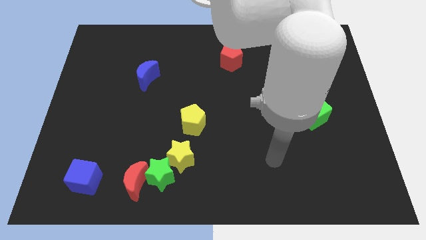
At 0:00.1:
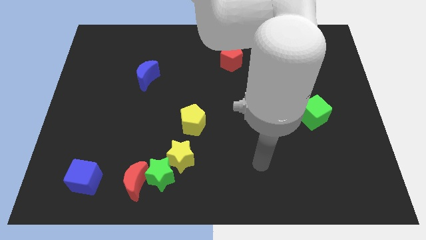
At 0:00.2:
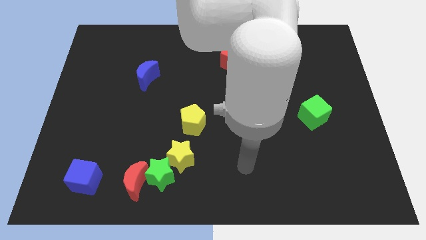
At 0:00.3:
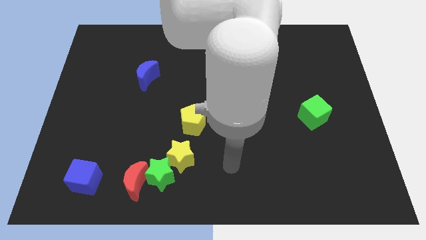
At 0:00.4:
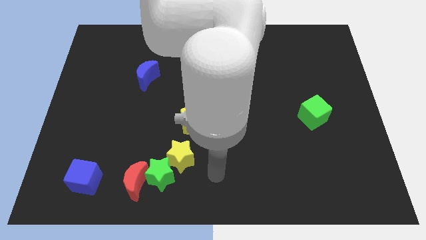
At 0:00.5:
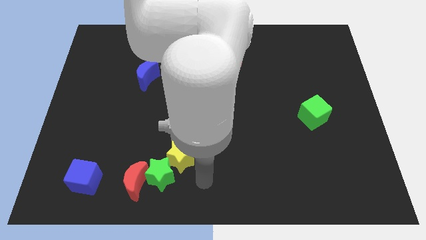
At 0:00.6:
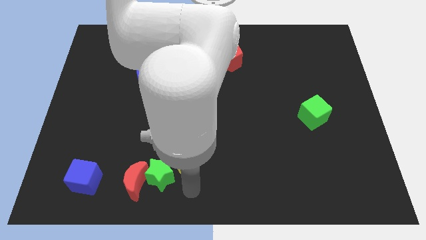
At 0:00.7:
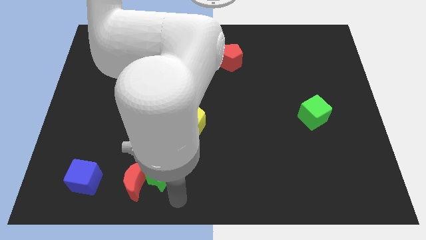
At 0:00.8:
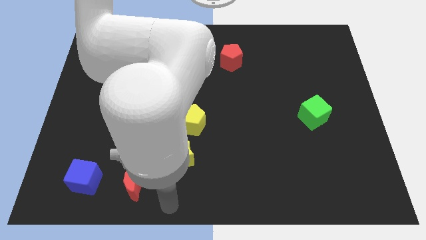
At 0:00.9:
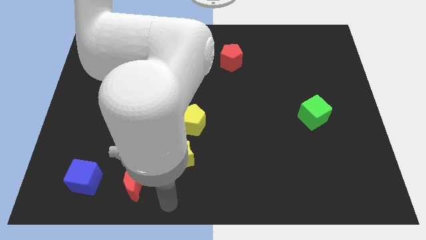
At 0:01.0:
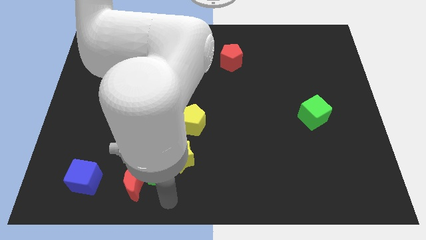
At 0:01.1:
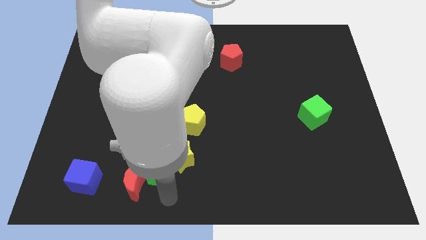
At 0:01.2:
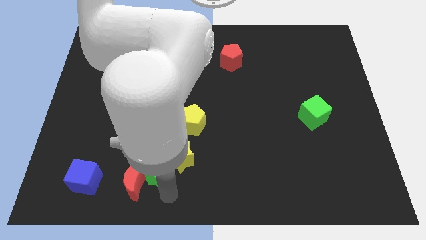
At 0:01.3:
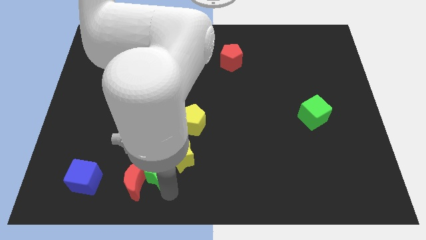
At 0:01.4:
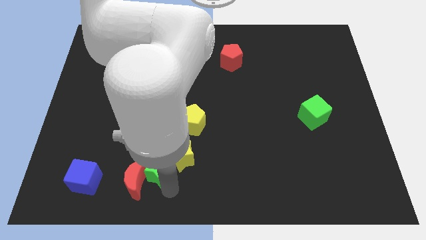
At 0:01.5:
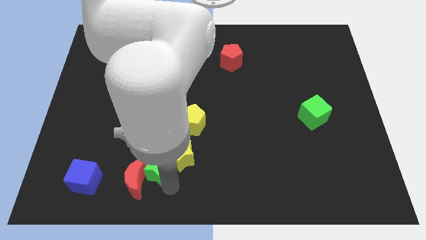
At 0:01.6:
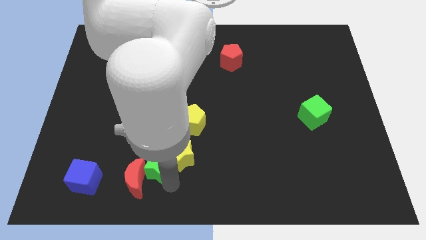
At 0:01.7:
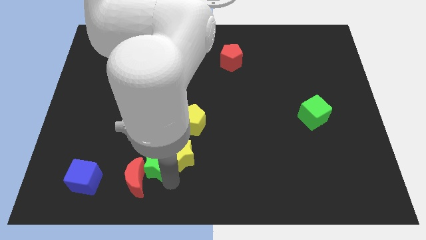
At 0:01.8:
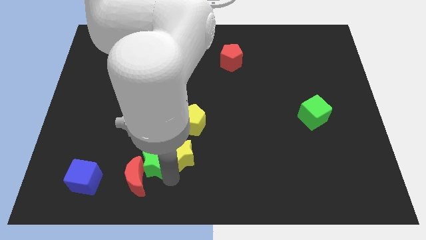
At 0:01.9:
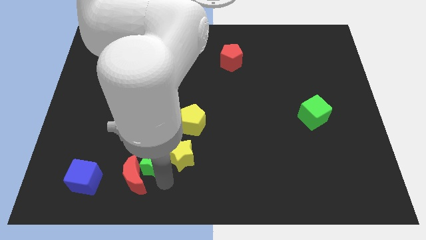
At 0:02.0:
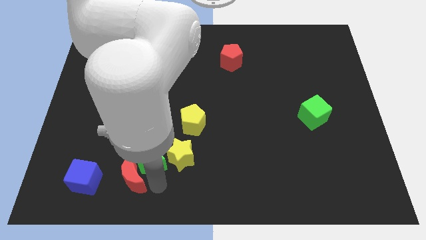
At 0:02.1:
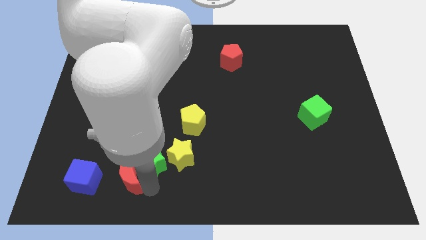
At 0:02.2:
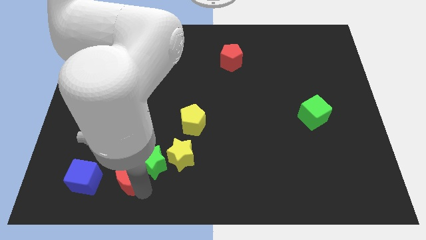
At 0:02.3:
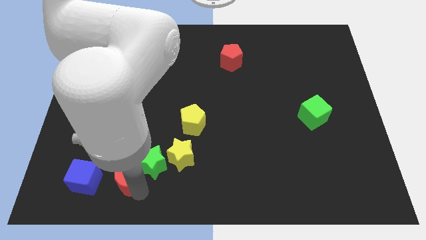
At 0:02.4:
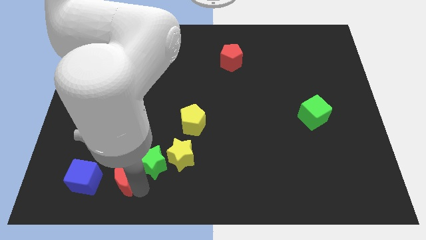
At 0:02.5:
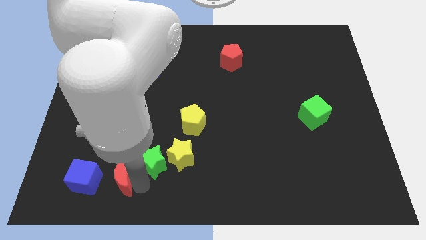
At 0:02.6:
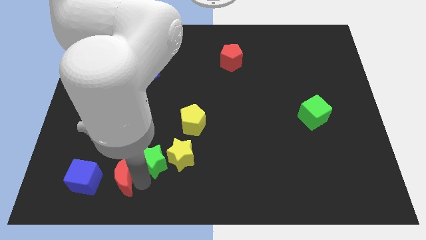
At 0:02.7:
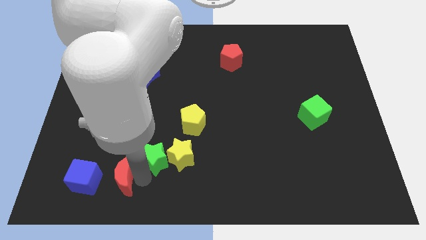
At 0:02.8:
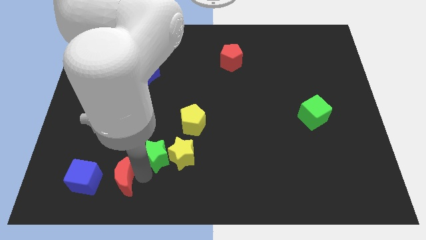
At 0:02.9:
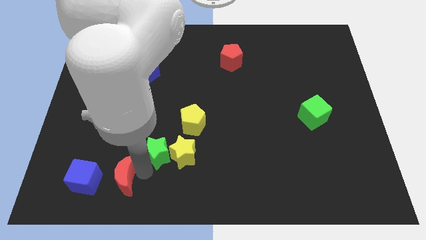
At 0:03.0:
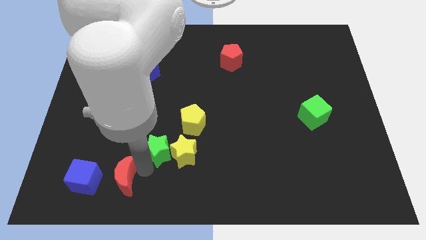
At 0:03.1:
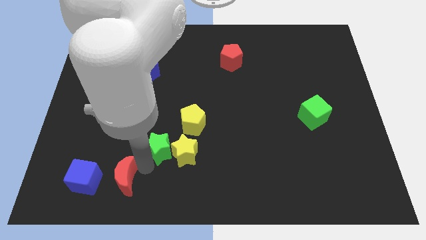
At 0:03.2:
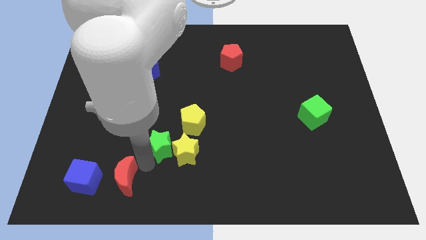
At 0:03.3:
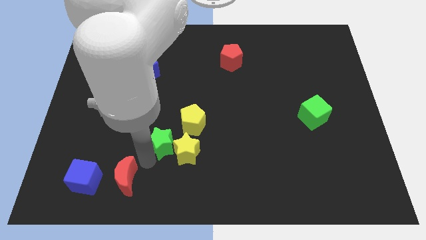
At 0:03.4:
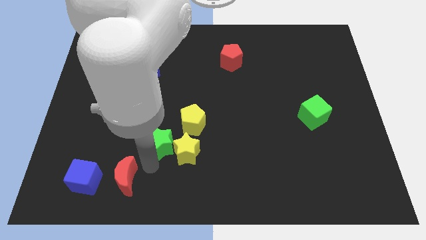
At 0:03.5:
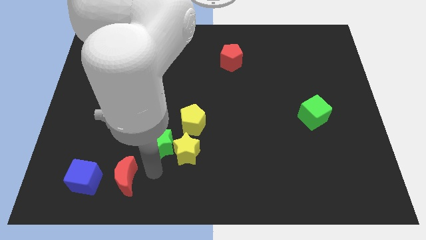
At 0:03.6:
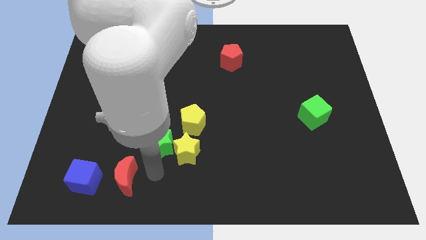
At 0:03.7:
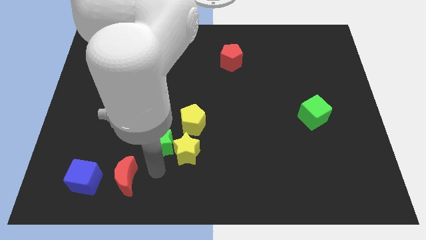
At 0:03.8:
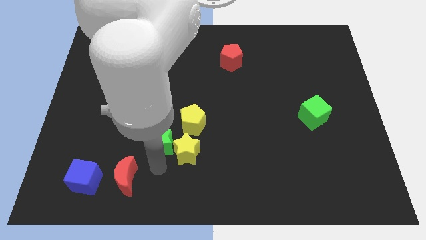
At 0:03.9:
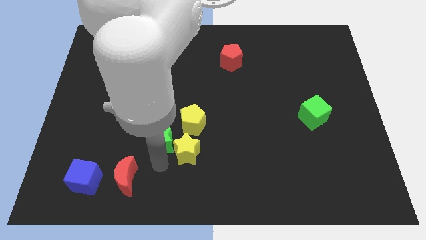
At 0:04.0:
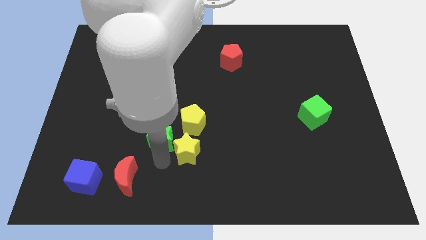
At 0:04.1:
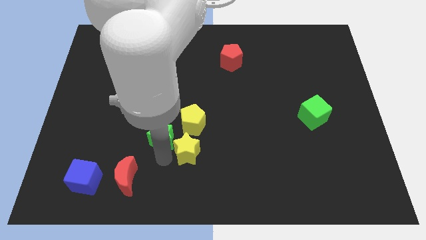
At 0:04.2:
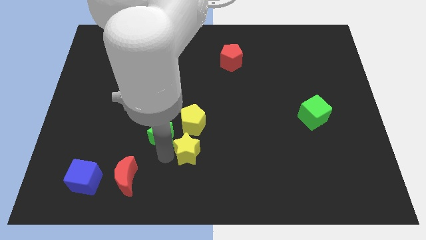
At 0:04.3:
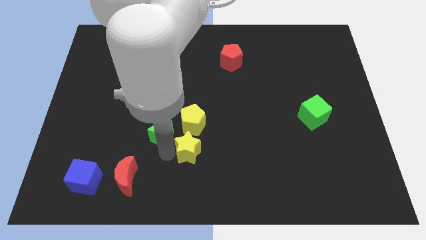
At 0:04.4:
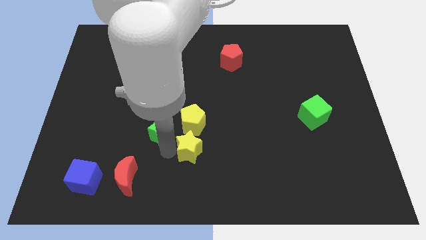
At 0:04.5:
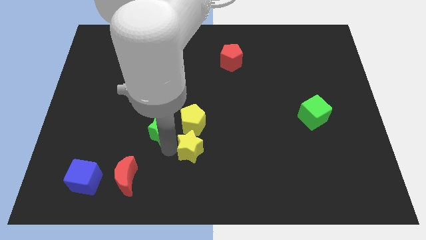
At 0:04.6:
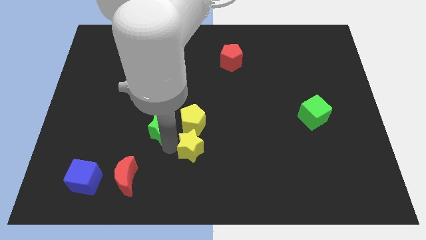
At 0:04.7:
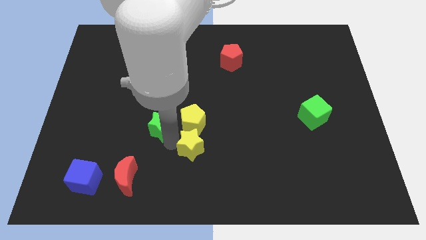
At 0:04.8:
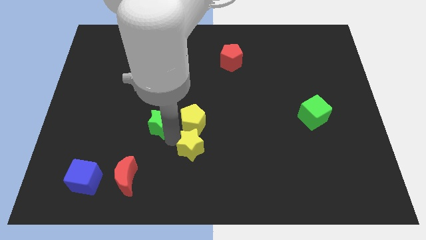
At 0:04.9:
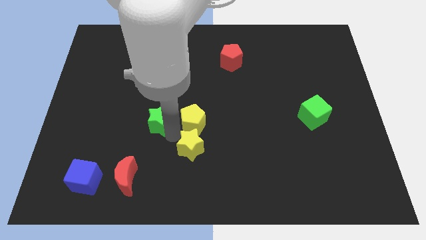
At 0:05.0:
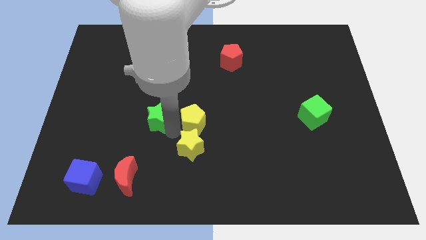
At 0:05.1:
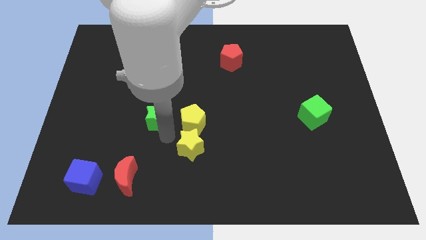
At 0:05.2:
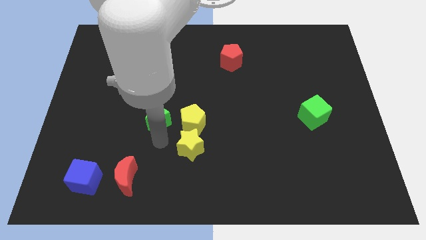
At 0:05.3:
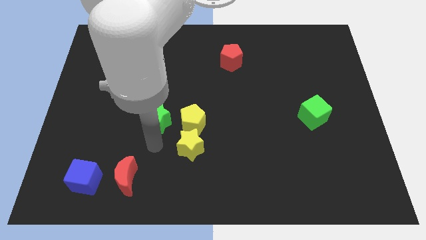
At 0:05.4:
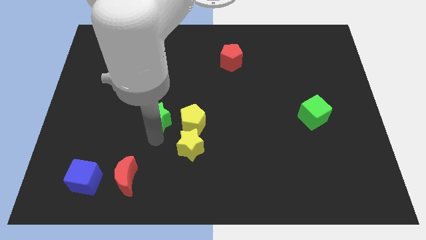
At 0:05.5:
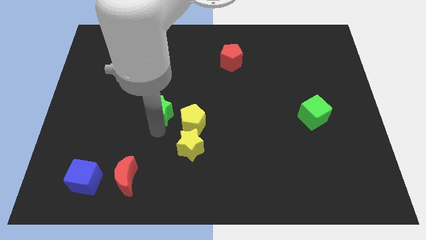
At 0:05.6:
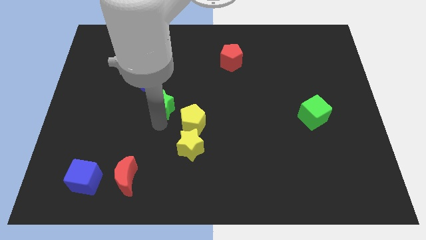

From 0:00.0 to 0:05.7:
move the green star to the bottom right of the blue moon

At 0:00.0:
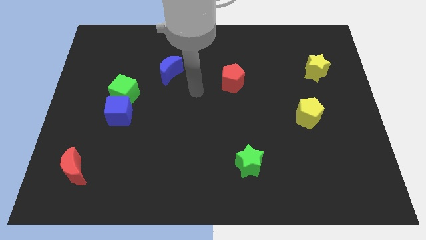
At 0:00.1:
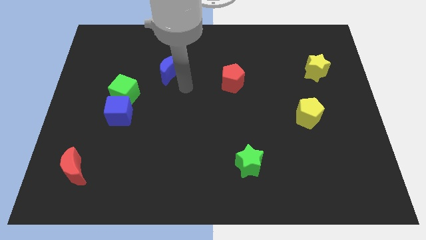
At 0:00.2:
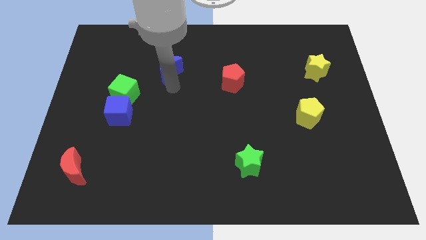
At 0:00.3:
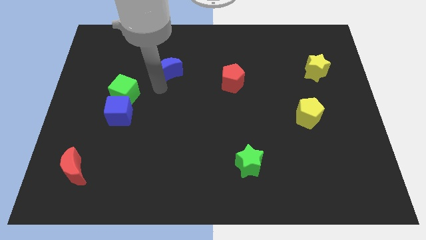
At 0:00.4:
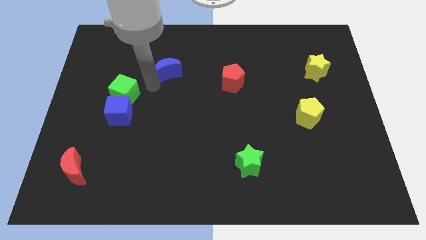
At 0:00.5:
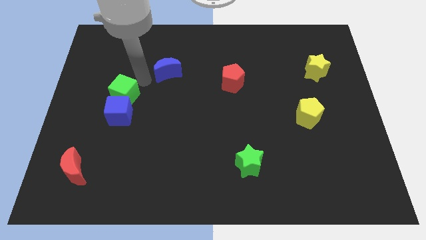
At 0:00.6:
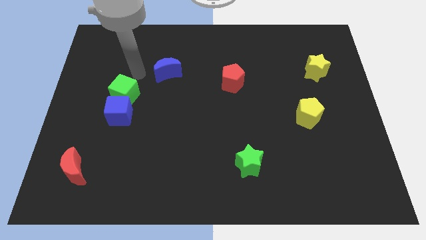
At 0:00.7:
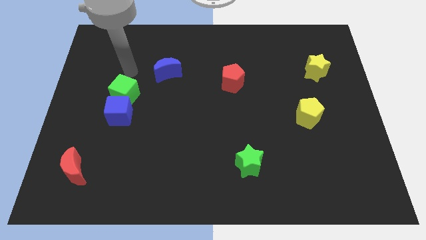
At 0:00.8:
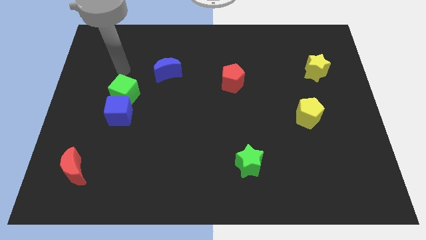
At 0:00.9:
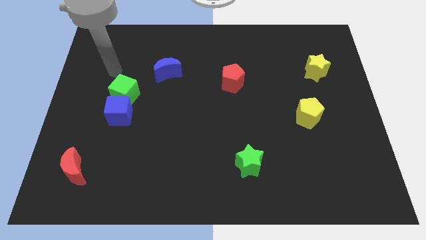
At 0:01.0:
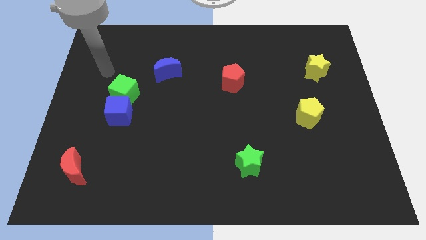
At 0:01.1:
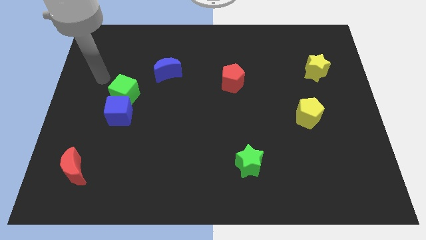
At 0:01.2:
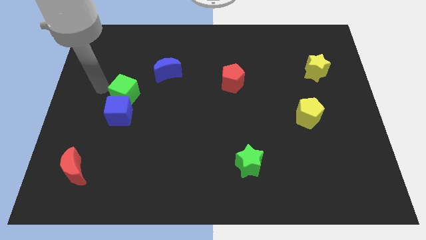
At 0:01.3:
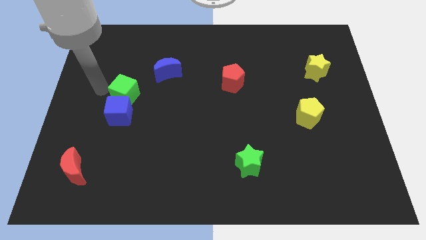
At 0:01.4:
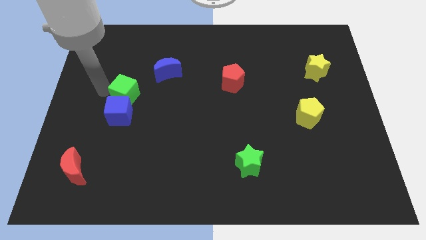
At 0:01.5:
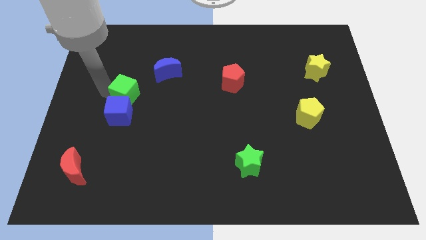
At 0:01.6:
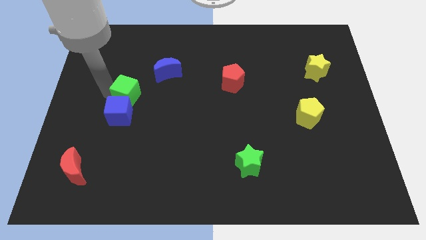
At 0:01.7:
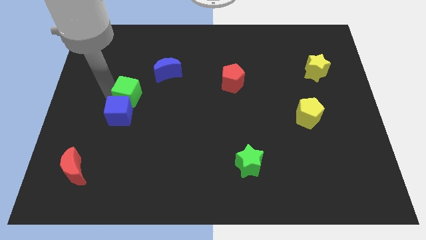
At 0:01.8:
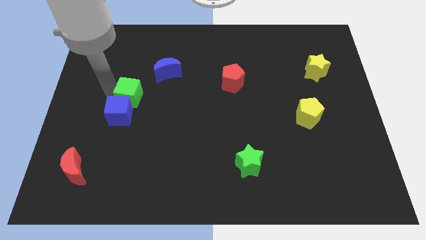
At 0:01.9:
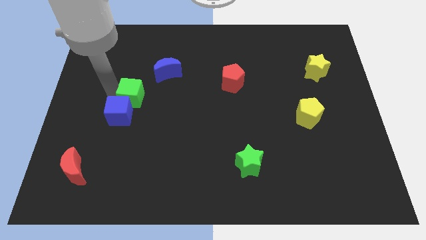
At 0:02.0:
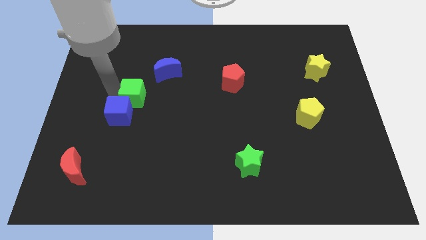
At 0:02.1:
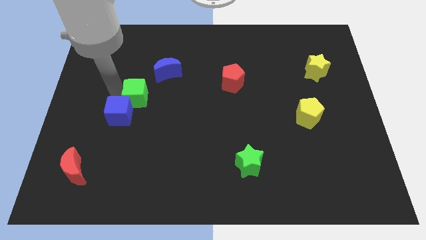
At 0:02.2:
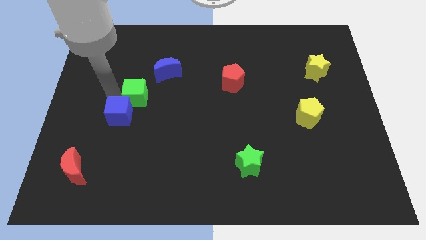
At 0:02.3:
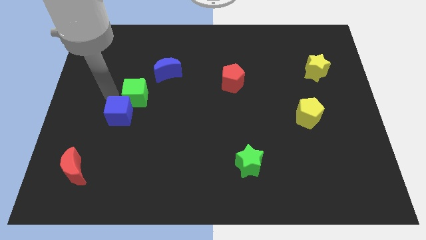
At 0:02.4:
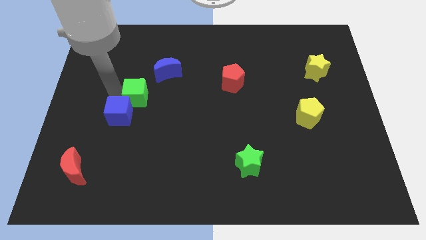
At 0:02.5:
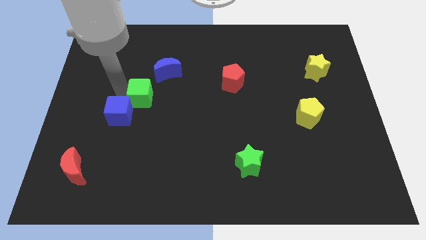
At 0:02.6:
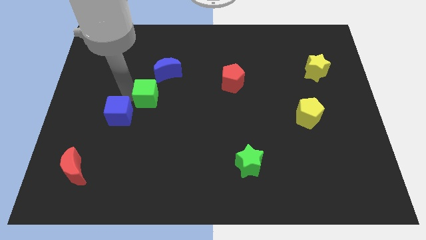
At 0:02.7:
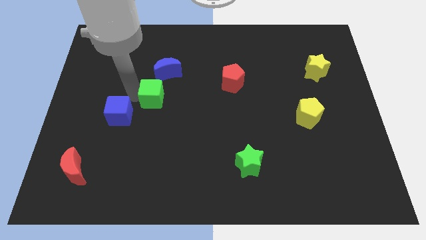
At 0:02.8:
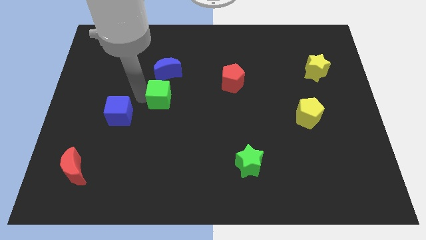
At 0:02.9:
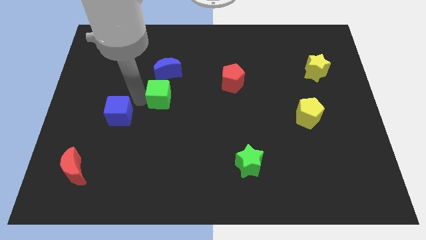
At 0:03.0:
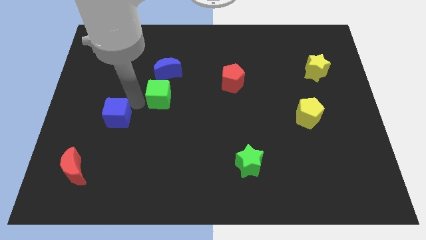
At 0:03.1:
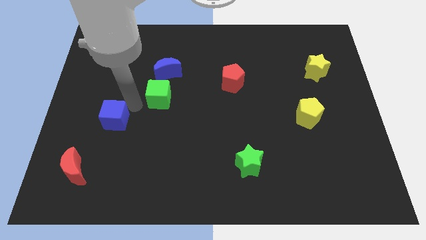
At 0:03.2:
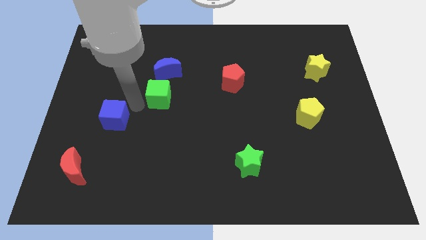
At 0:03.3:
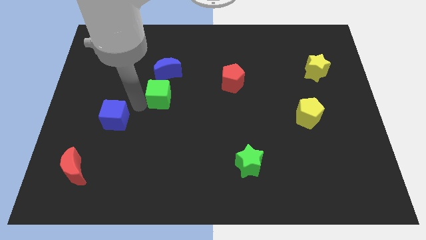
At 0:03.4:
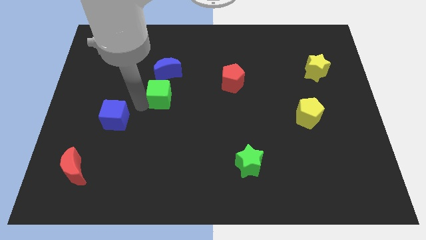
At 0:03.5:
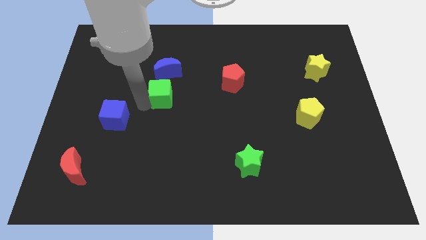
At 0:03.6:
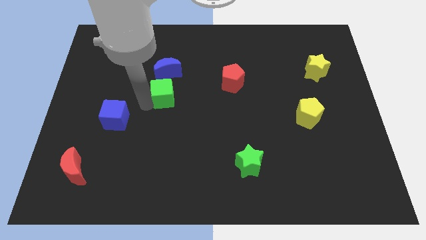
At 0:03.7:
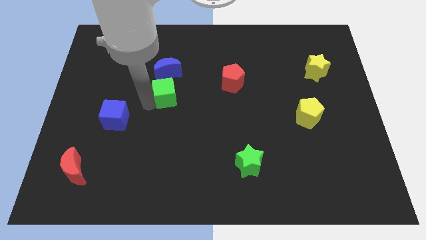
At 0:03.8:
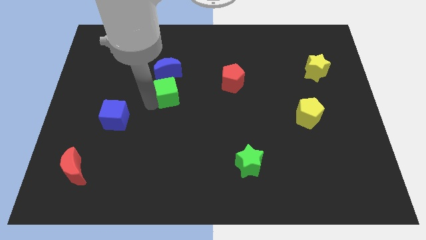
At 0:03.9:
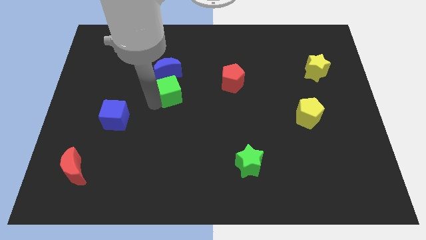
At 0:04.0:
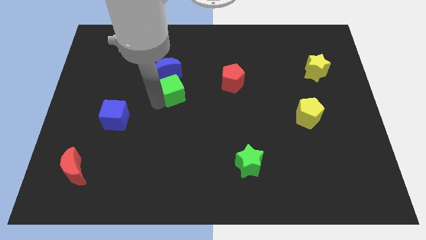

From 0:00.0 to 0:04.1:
slide the green cube to the left side of the red pentagon
